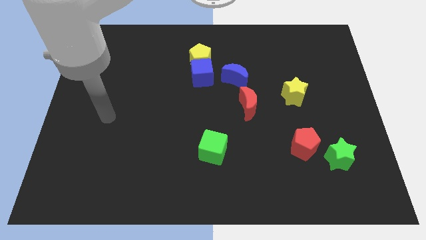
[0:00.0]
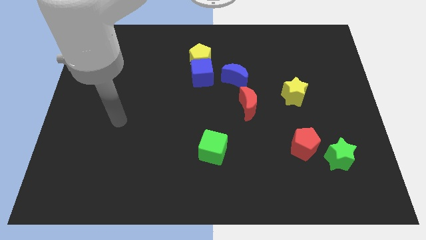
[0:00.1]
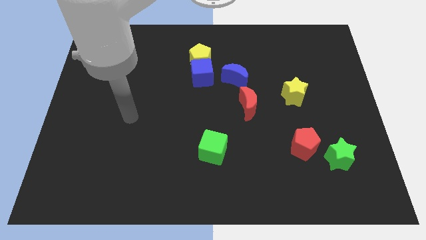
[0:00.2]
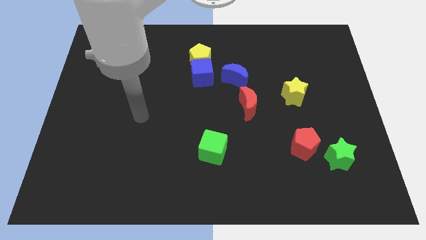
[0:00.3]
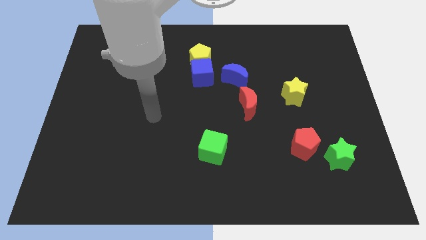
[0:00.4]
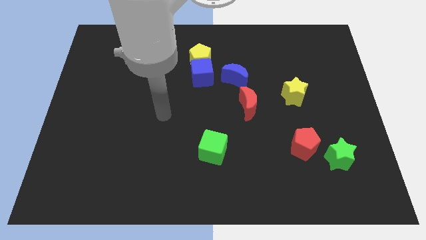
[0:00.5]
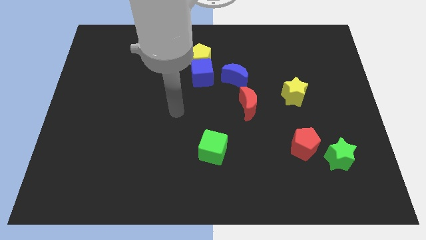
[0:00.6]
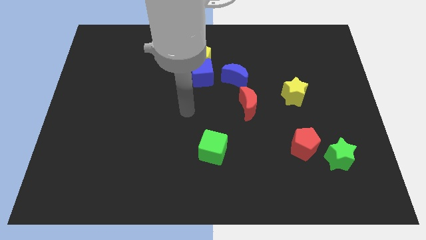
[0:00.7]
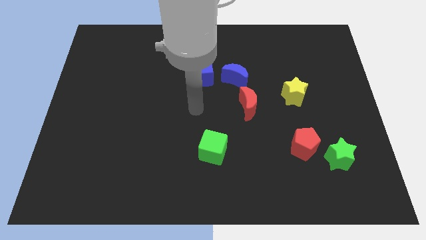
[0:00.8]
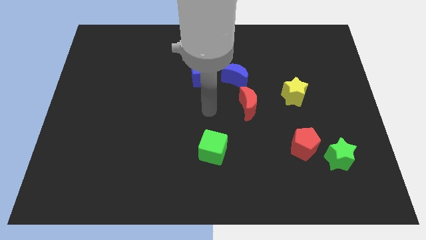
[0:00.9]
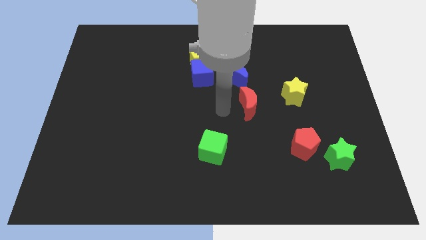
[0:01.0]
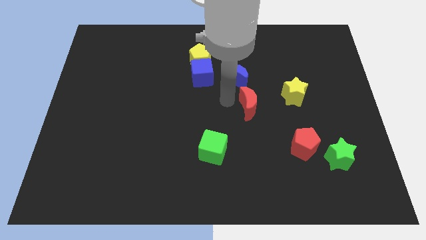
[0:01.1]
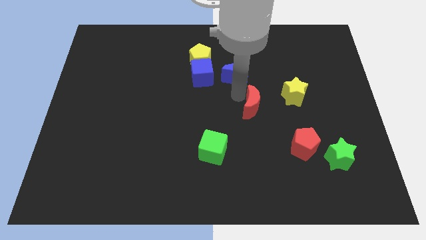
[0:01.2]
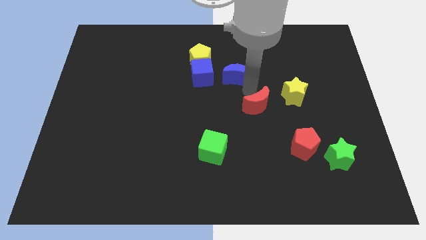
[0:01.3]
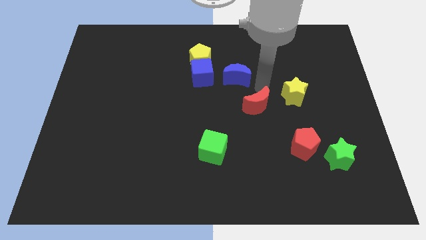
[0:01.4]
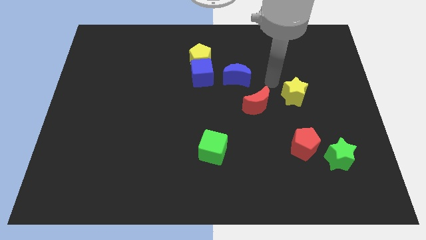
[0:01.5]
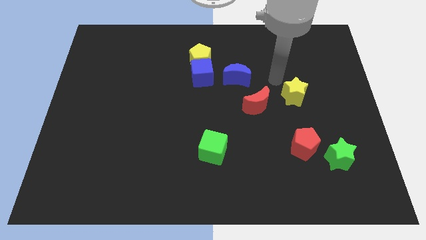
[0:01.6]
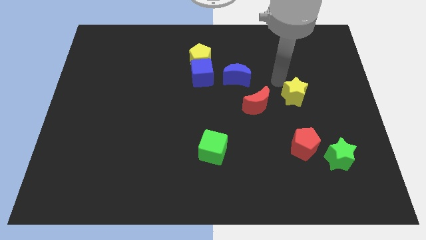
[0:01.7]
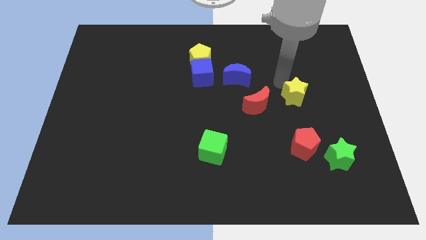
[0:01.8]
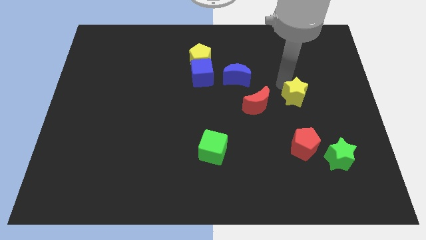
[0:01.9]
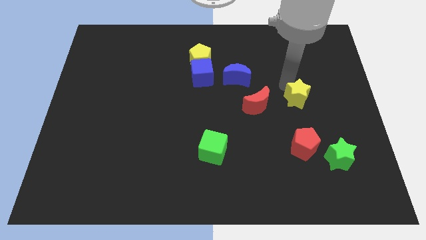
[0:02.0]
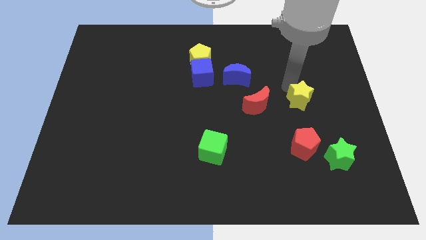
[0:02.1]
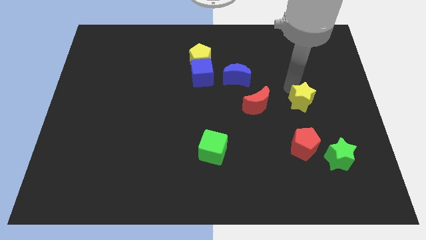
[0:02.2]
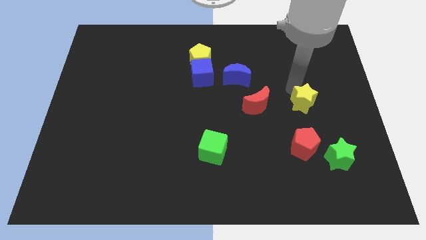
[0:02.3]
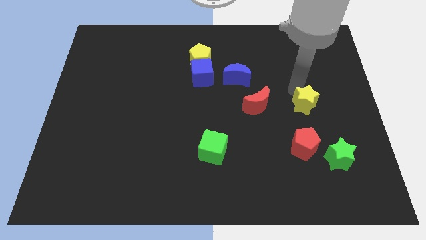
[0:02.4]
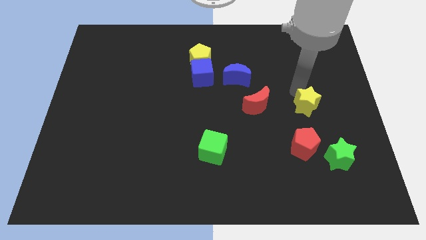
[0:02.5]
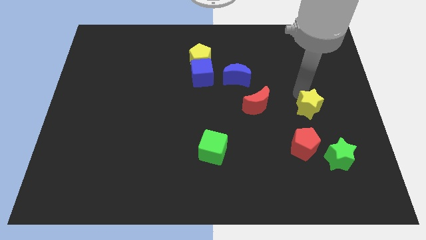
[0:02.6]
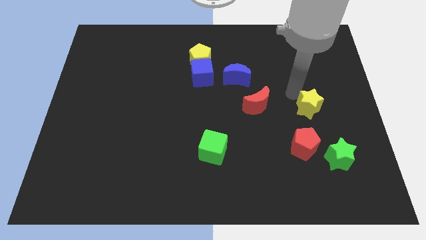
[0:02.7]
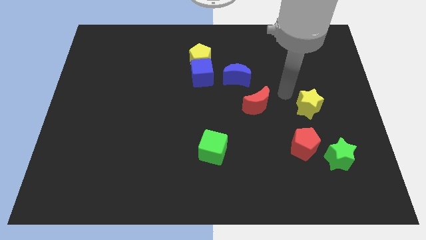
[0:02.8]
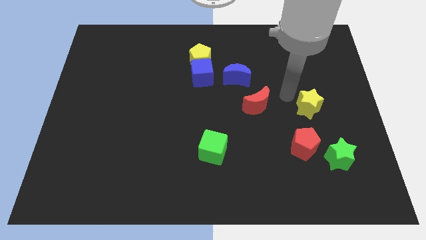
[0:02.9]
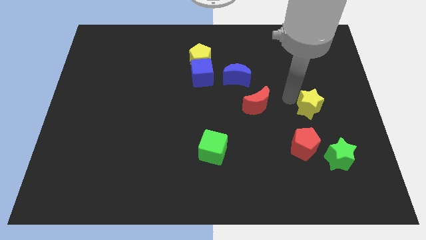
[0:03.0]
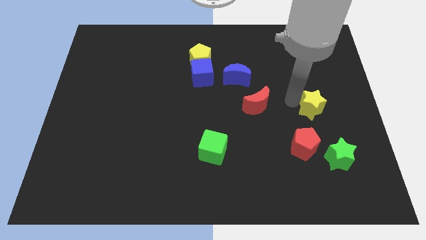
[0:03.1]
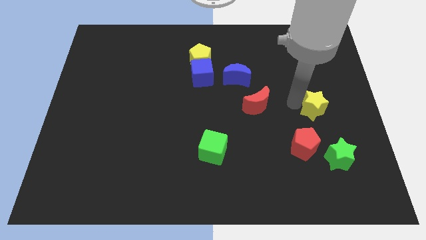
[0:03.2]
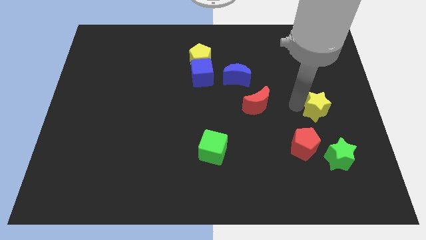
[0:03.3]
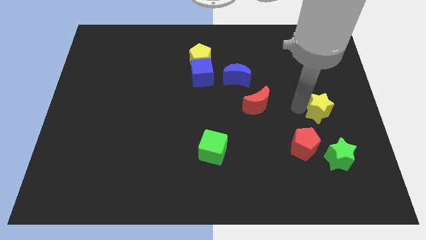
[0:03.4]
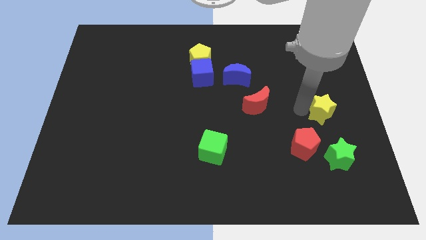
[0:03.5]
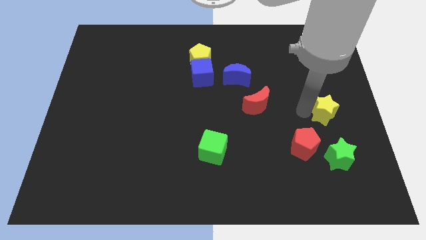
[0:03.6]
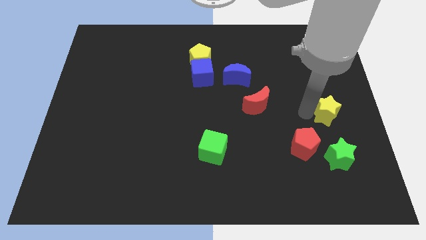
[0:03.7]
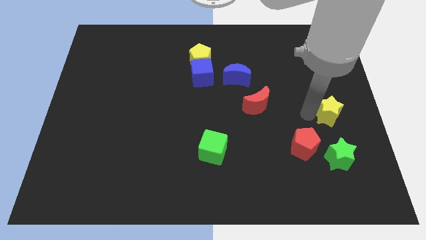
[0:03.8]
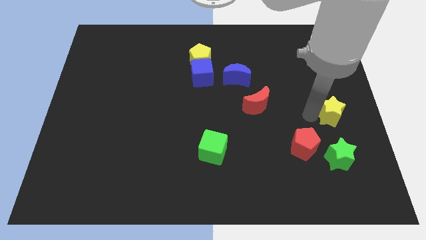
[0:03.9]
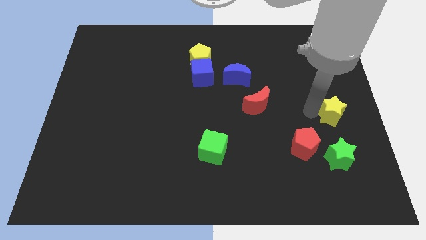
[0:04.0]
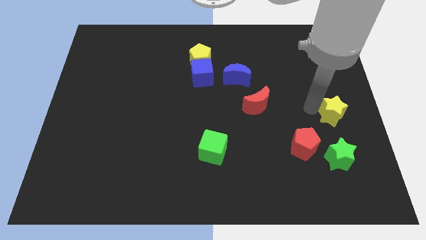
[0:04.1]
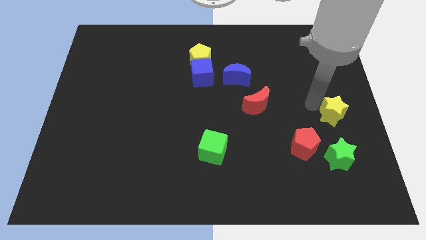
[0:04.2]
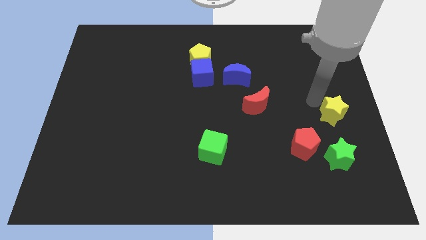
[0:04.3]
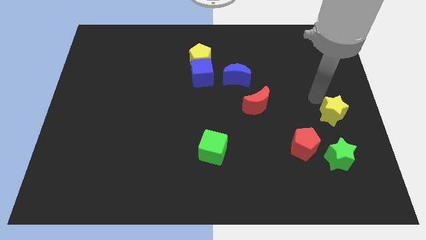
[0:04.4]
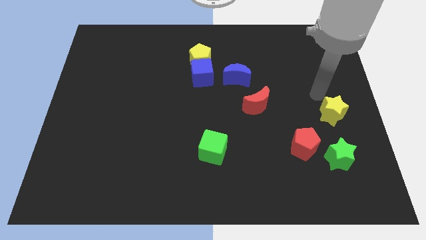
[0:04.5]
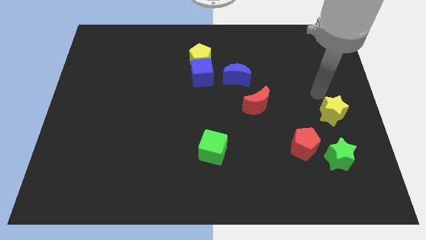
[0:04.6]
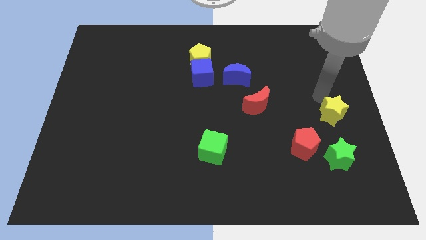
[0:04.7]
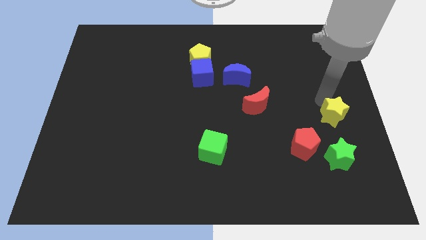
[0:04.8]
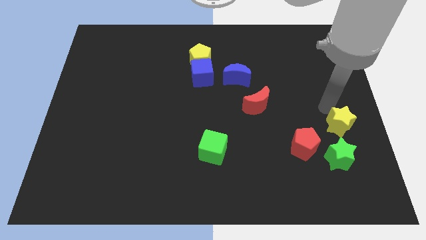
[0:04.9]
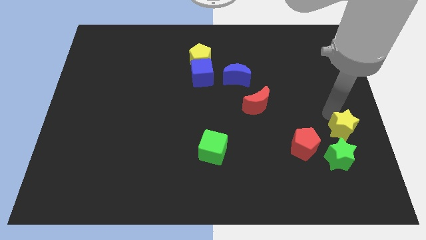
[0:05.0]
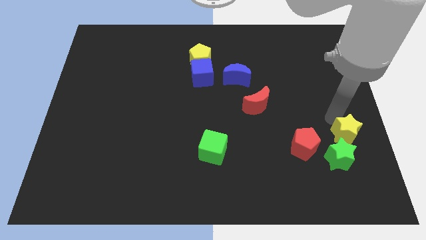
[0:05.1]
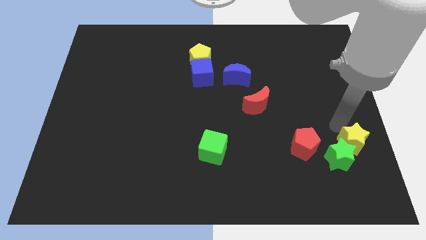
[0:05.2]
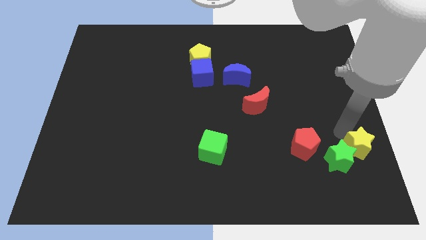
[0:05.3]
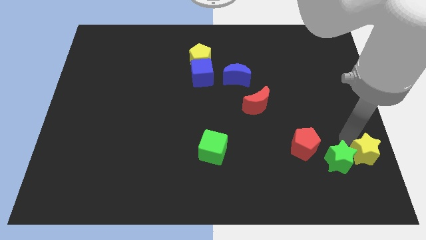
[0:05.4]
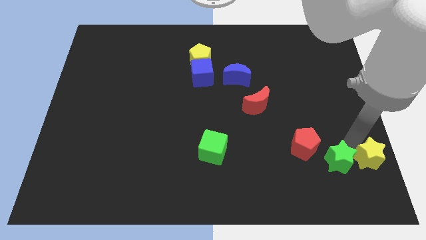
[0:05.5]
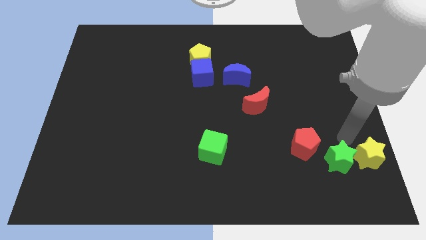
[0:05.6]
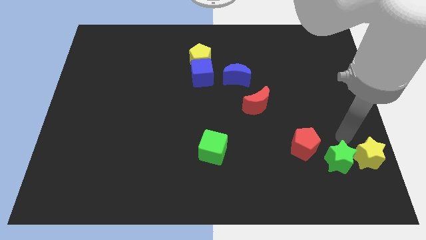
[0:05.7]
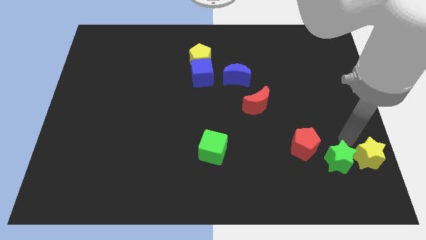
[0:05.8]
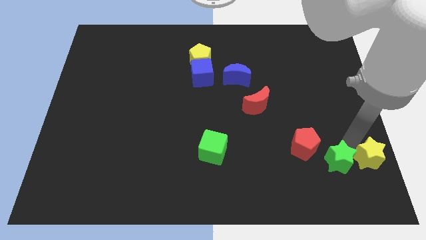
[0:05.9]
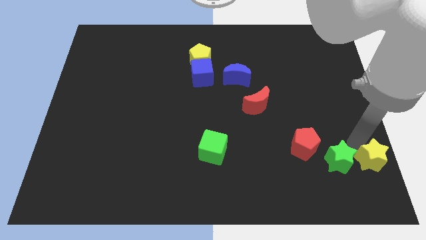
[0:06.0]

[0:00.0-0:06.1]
push the yellow star to the bottom right corner
